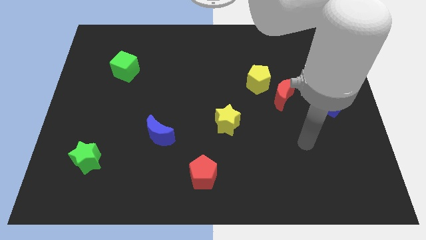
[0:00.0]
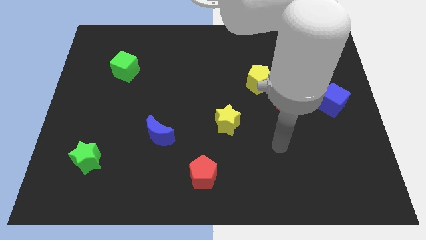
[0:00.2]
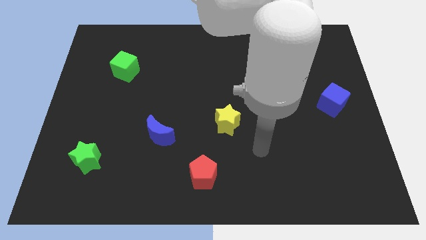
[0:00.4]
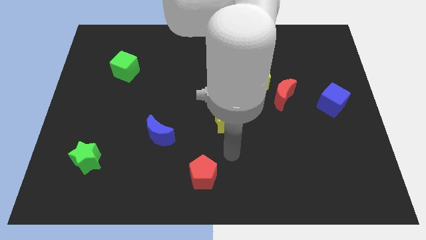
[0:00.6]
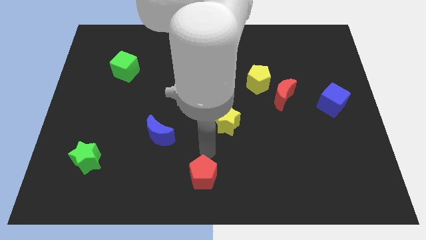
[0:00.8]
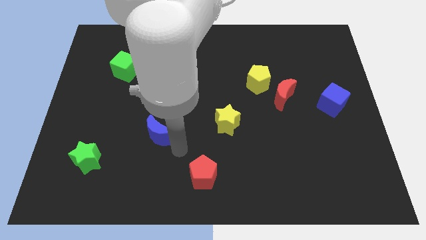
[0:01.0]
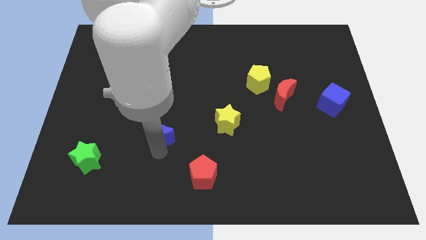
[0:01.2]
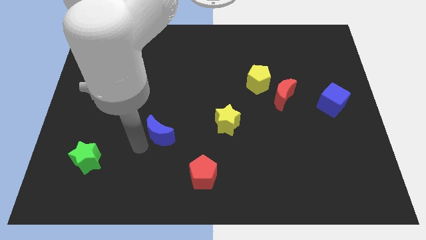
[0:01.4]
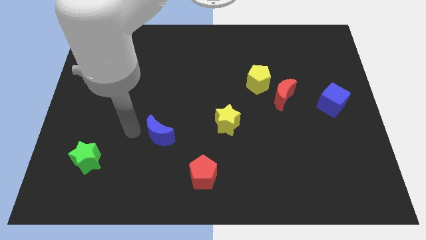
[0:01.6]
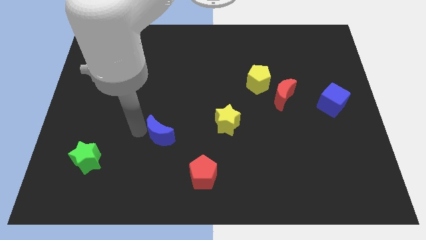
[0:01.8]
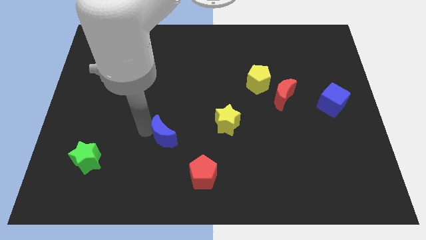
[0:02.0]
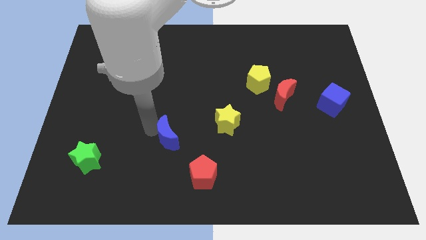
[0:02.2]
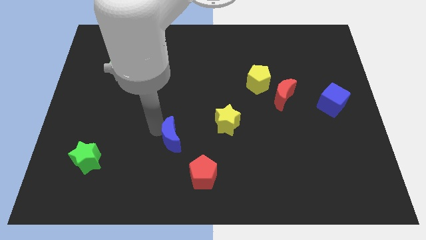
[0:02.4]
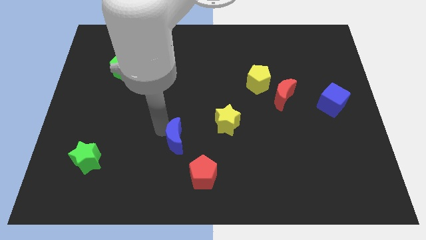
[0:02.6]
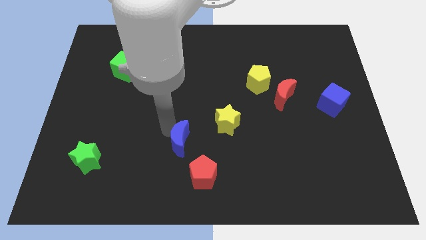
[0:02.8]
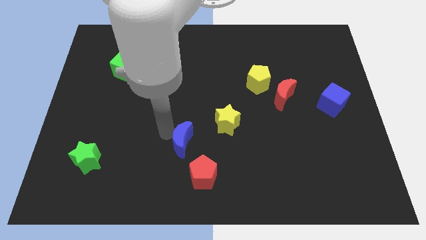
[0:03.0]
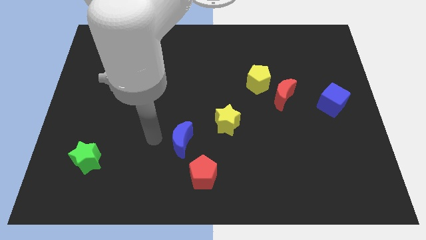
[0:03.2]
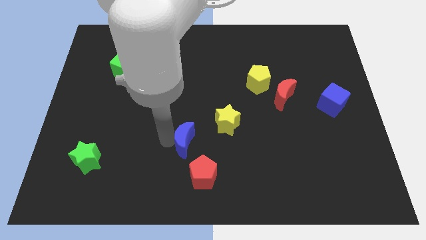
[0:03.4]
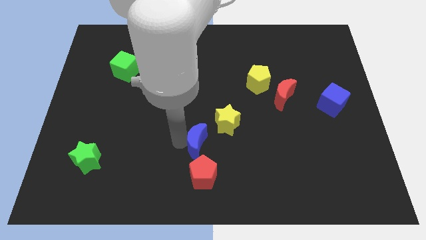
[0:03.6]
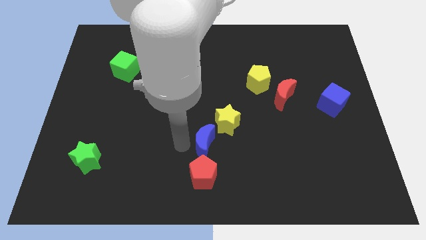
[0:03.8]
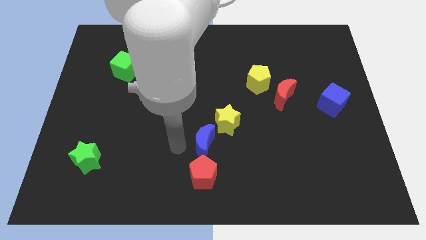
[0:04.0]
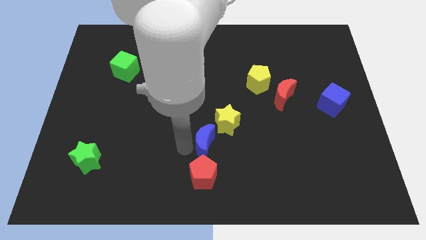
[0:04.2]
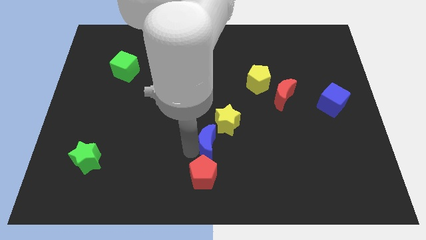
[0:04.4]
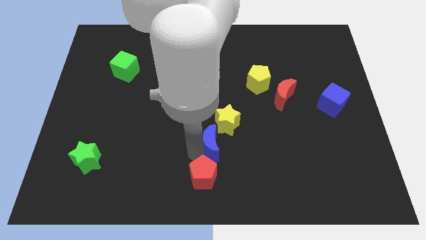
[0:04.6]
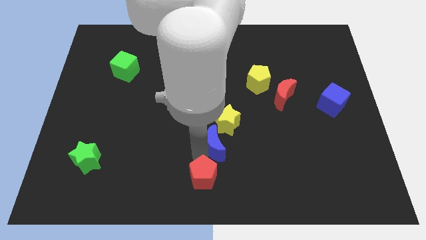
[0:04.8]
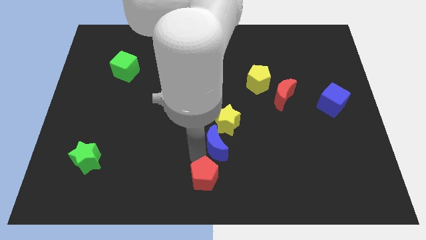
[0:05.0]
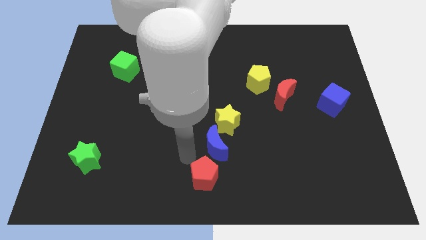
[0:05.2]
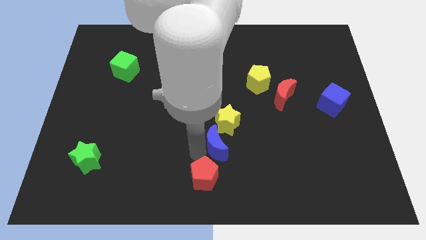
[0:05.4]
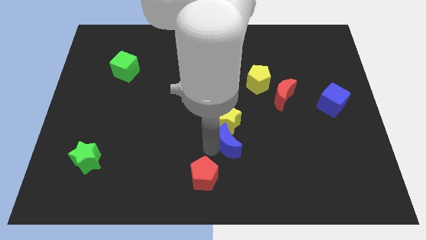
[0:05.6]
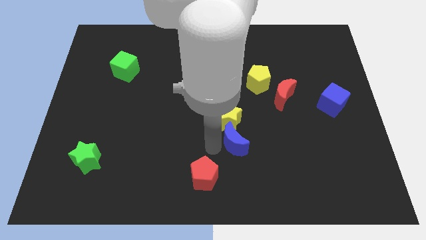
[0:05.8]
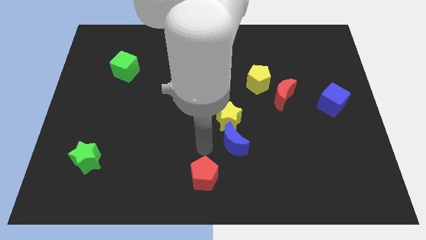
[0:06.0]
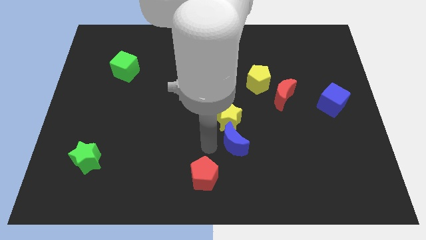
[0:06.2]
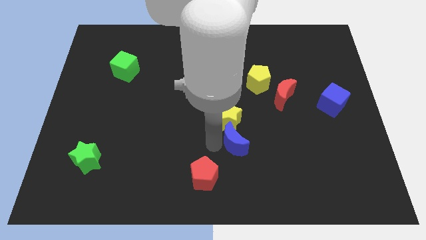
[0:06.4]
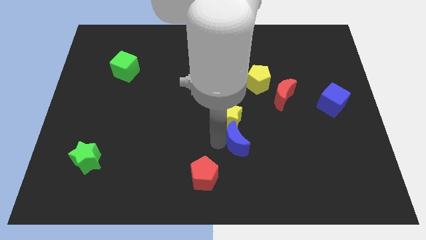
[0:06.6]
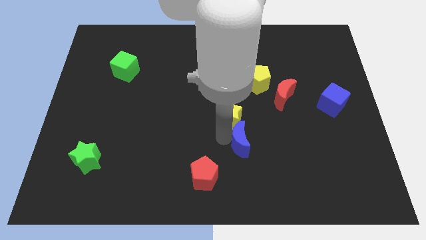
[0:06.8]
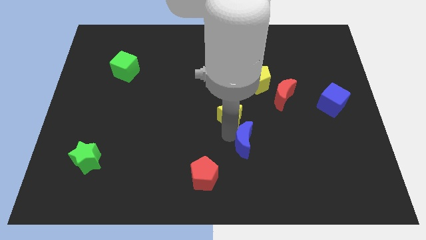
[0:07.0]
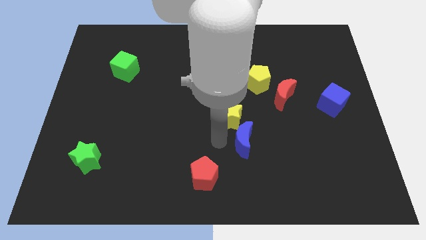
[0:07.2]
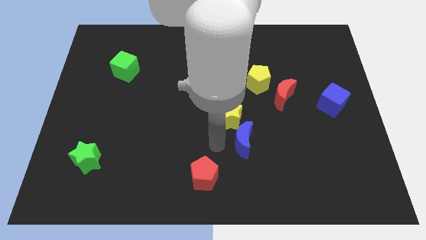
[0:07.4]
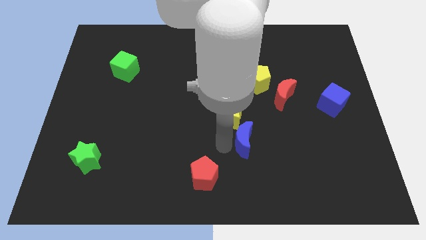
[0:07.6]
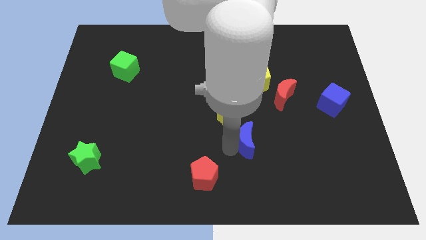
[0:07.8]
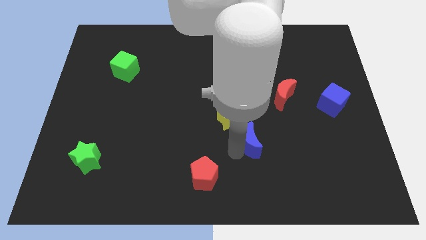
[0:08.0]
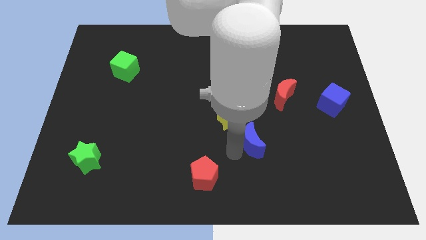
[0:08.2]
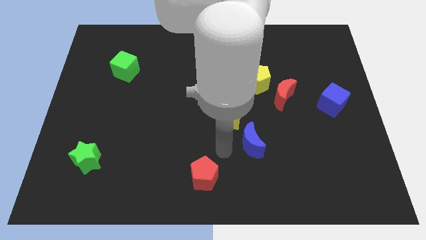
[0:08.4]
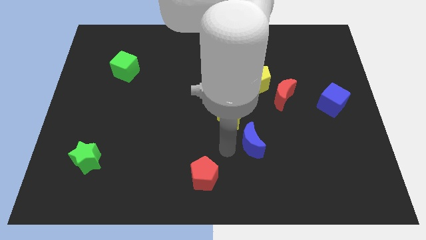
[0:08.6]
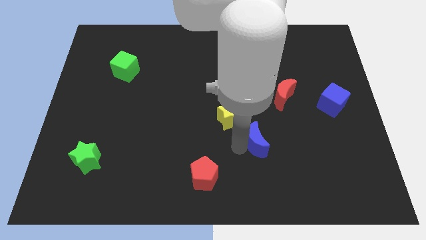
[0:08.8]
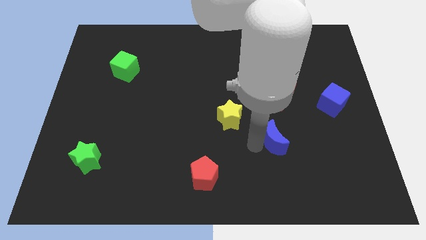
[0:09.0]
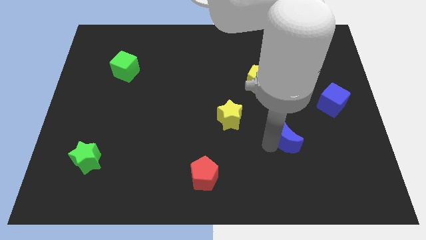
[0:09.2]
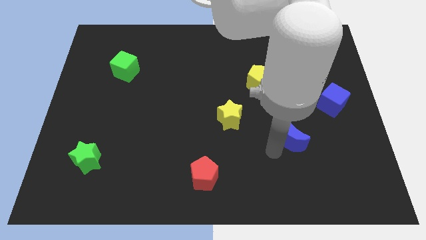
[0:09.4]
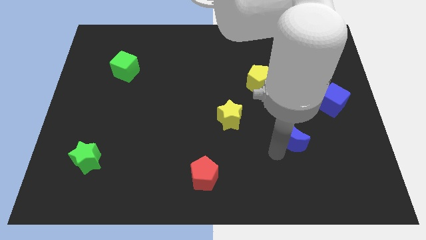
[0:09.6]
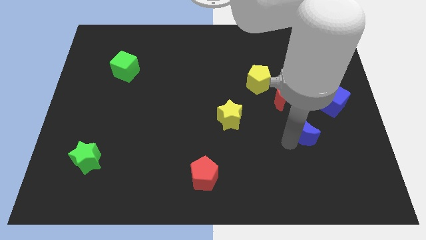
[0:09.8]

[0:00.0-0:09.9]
push the blue moon to the bottom left of the blue cube

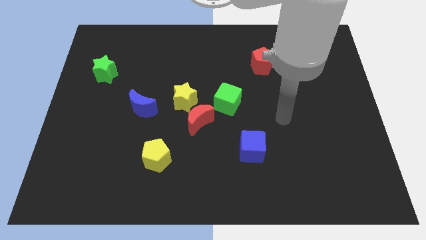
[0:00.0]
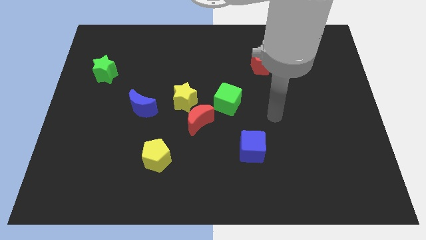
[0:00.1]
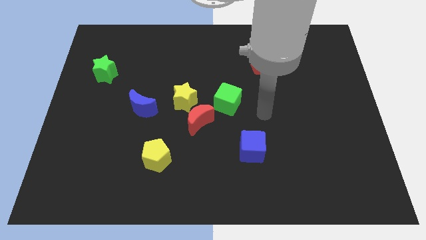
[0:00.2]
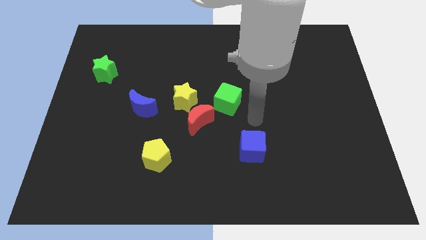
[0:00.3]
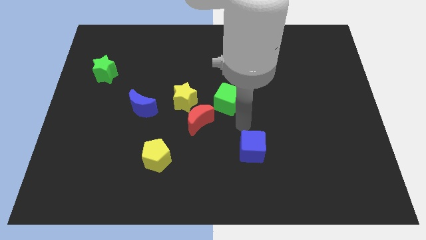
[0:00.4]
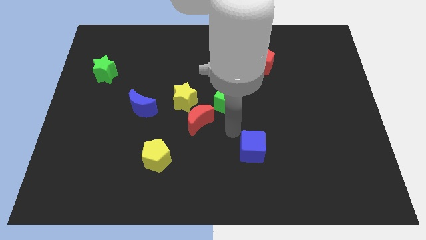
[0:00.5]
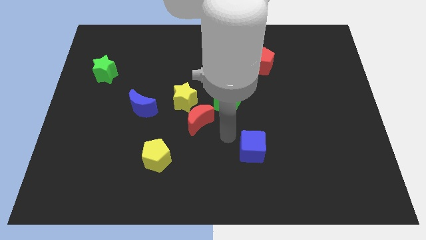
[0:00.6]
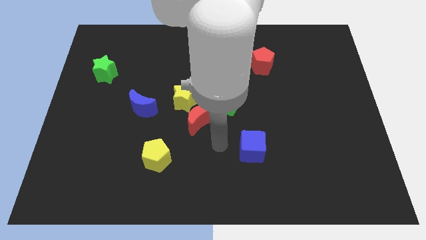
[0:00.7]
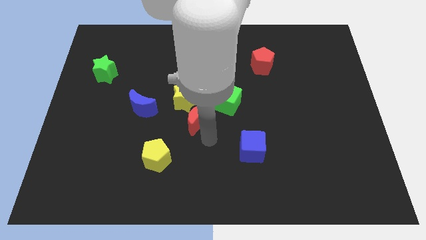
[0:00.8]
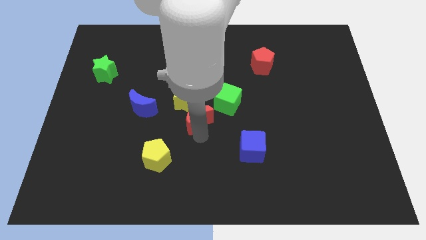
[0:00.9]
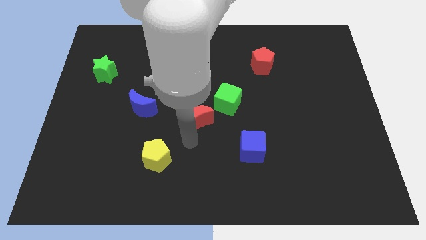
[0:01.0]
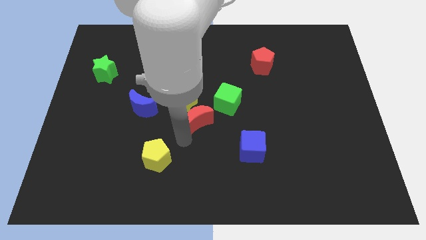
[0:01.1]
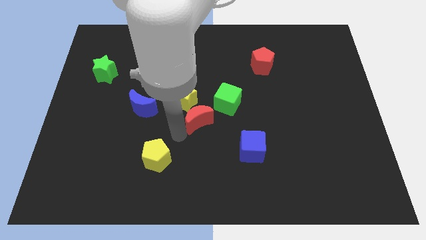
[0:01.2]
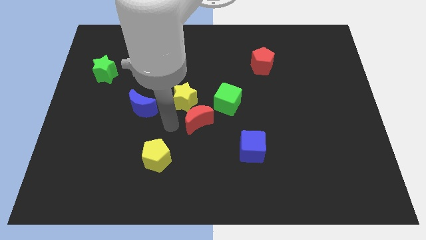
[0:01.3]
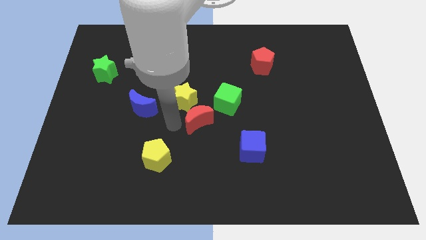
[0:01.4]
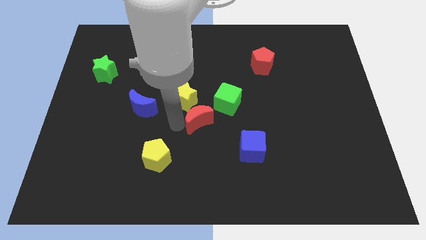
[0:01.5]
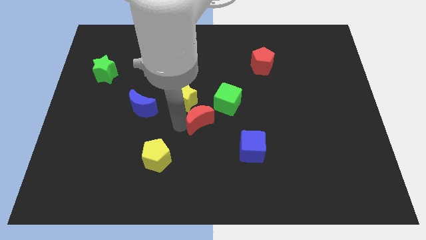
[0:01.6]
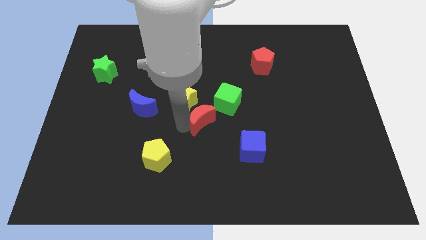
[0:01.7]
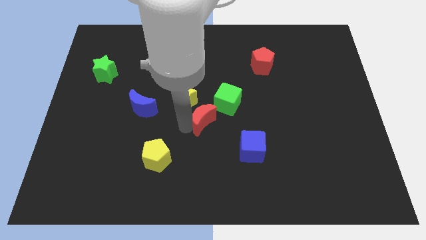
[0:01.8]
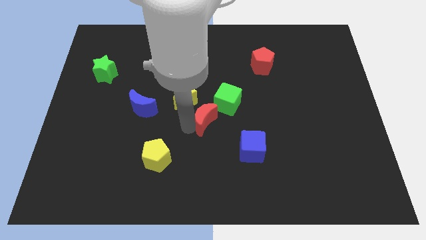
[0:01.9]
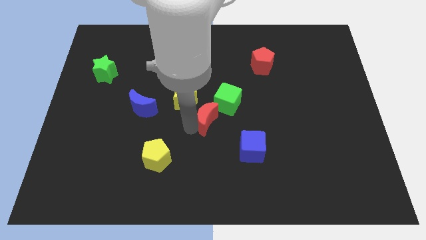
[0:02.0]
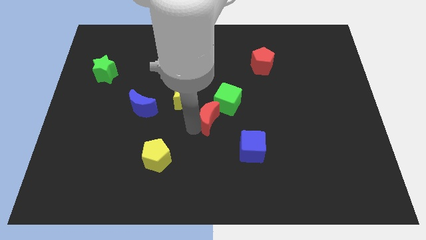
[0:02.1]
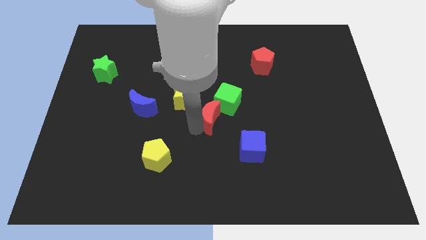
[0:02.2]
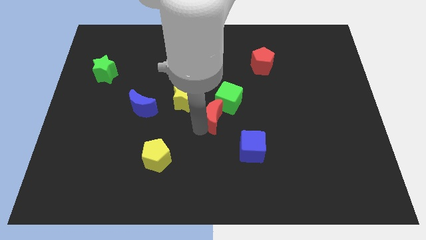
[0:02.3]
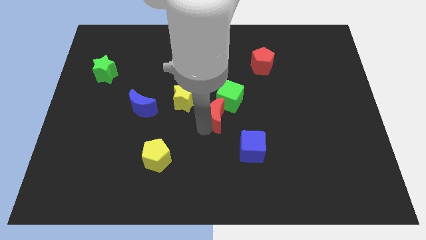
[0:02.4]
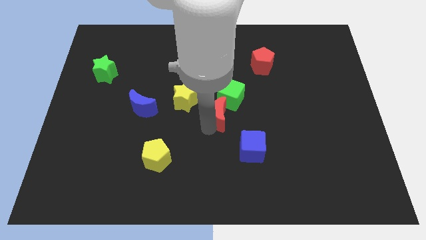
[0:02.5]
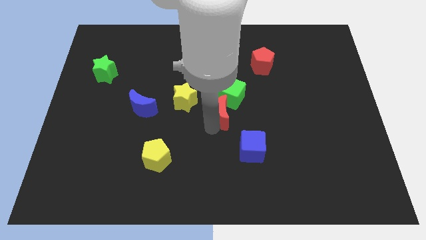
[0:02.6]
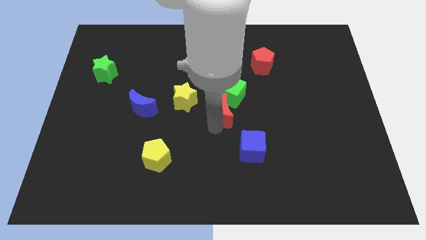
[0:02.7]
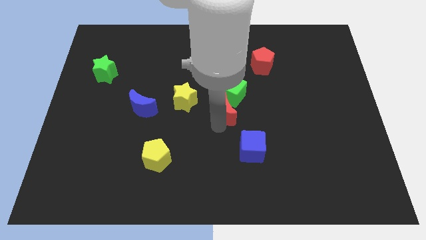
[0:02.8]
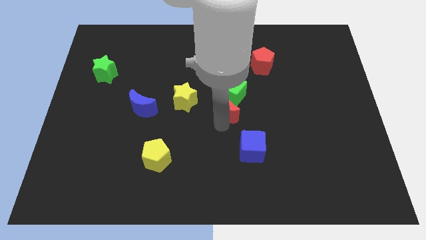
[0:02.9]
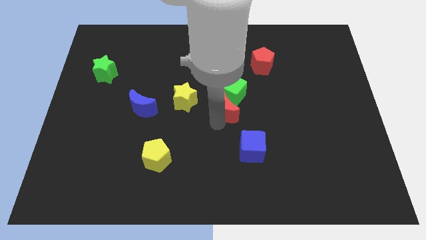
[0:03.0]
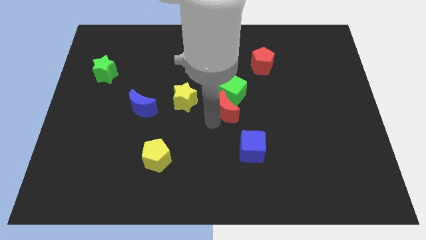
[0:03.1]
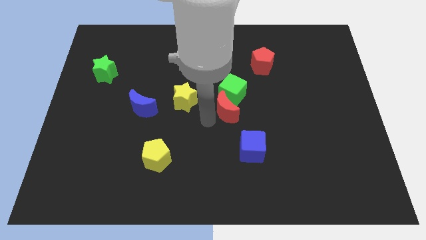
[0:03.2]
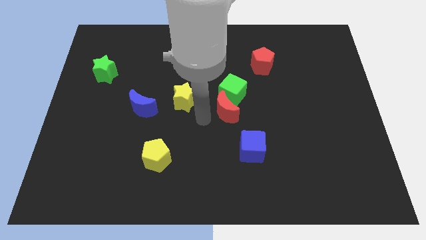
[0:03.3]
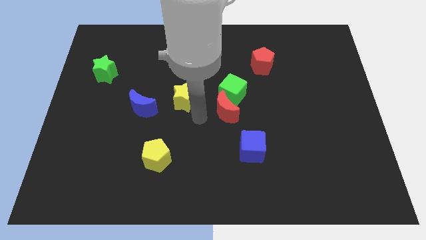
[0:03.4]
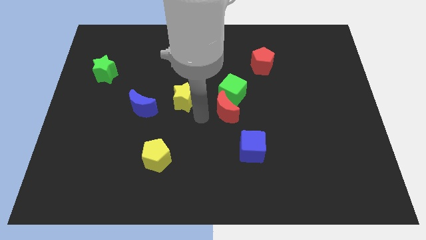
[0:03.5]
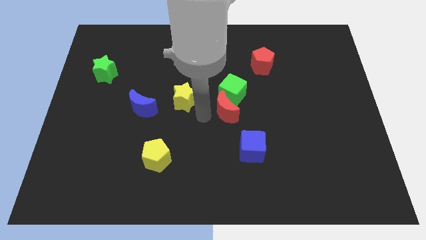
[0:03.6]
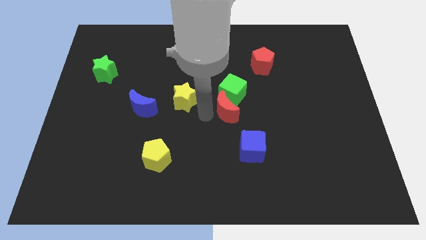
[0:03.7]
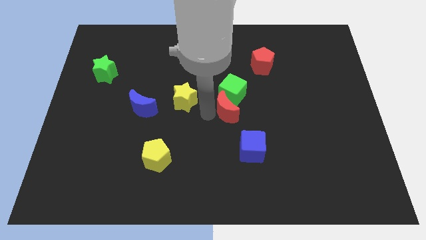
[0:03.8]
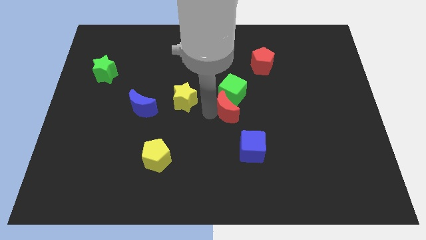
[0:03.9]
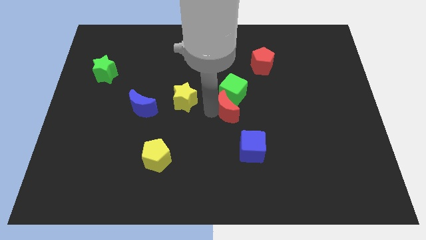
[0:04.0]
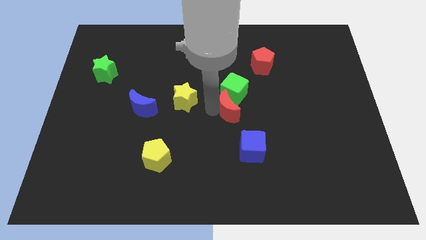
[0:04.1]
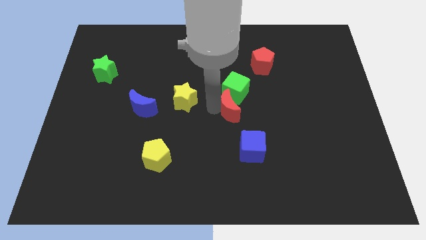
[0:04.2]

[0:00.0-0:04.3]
slide the red moon above the blue cube
